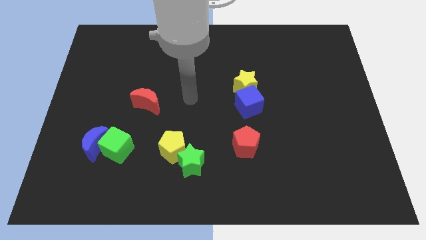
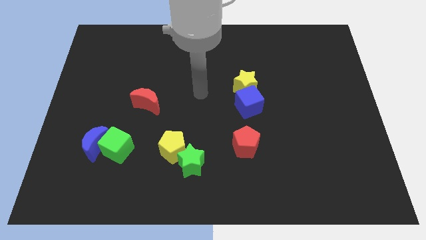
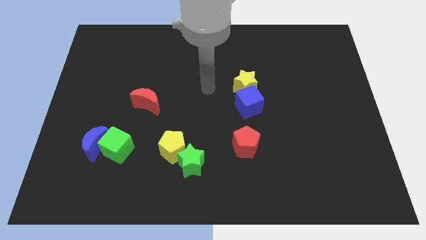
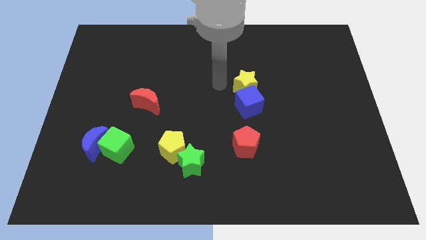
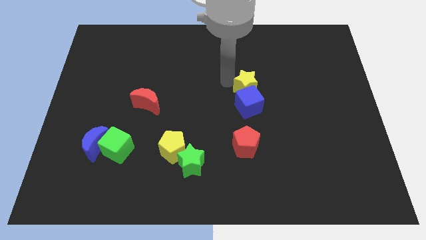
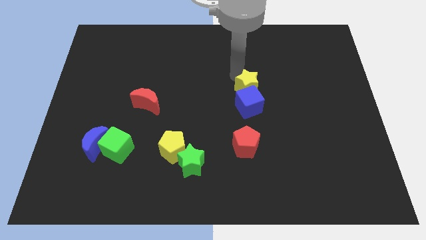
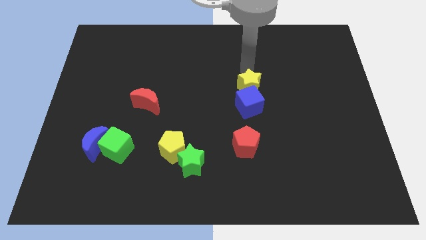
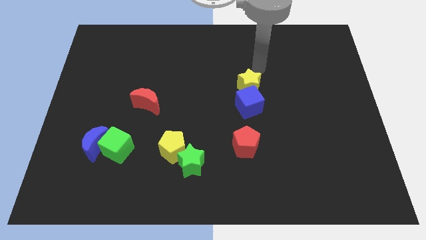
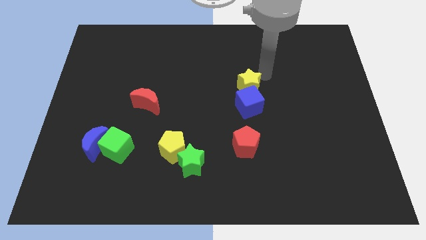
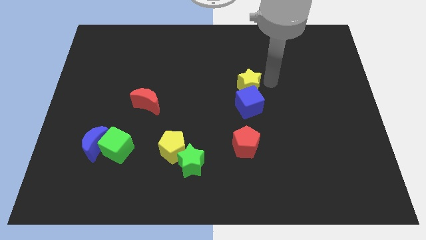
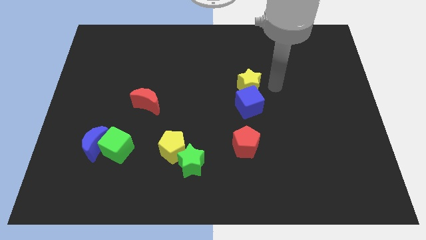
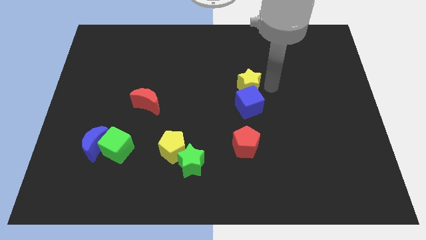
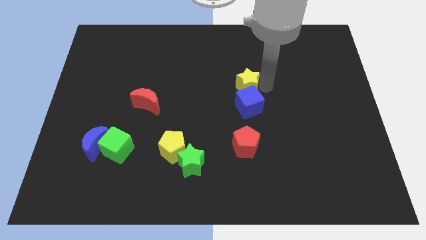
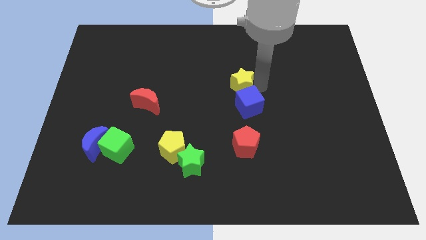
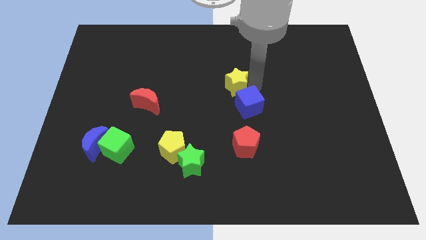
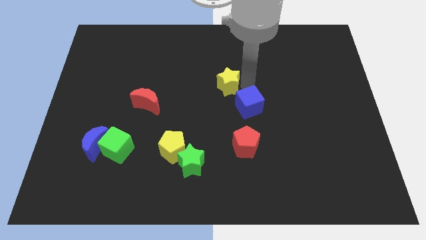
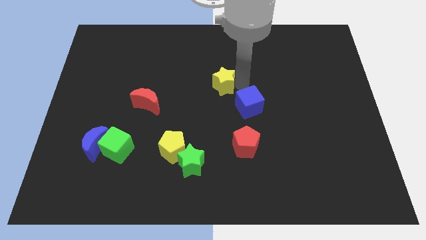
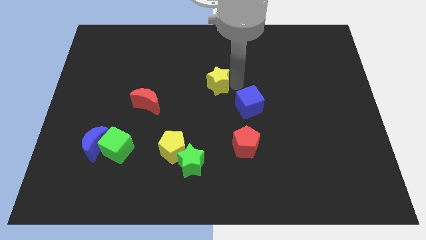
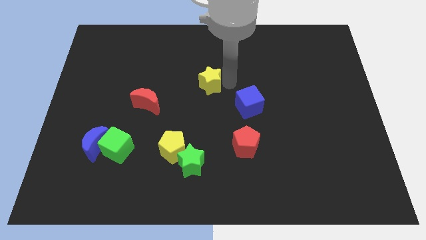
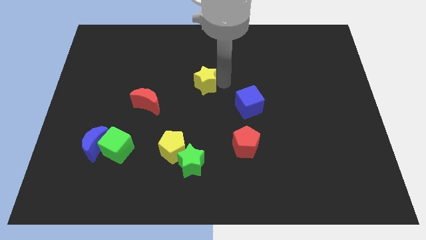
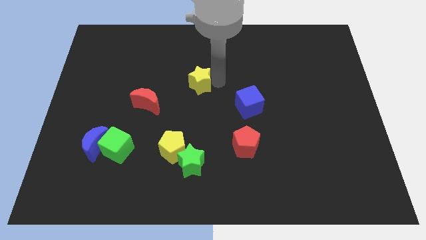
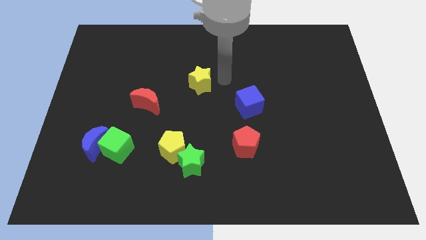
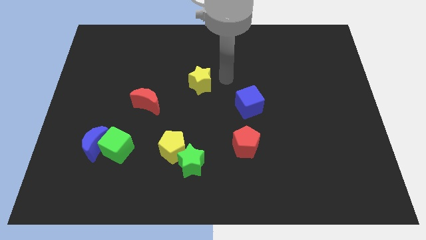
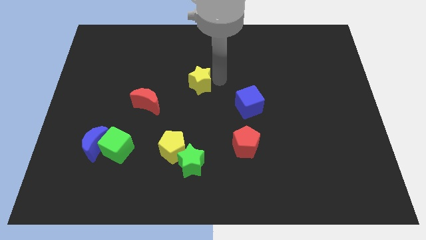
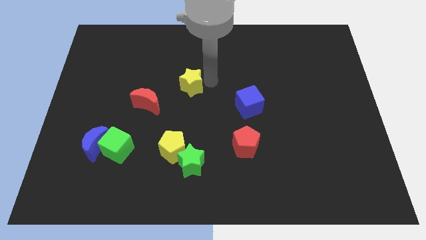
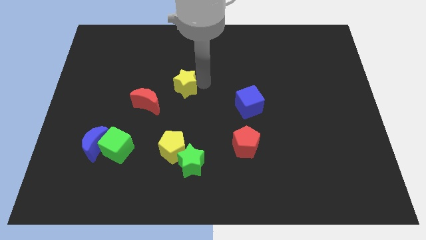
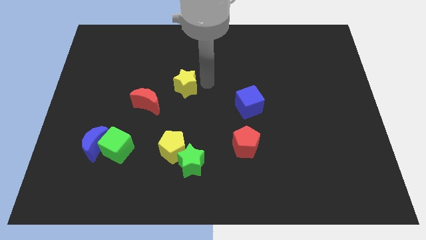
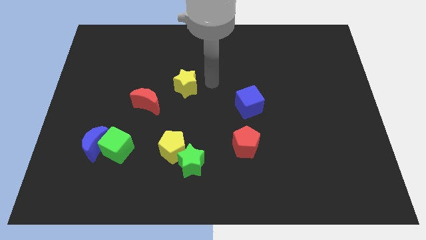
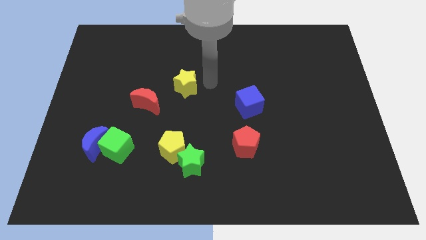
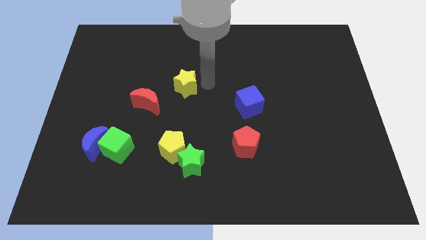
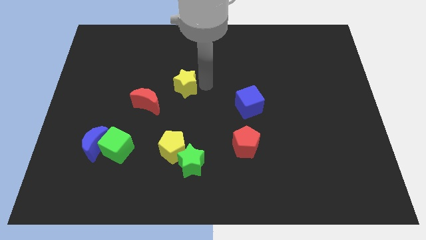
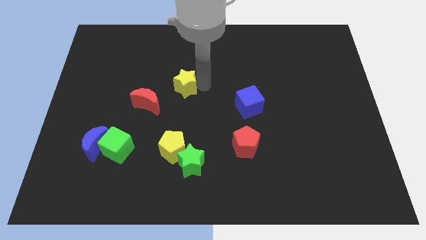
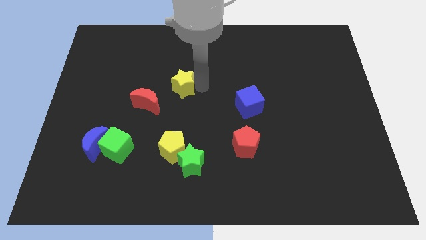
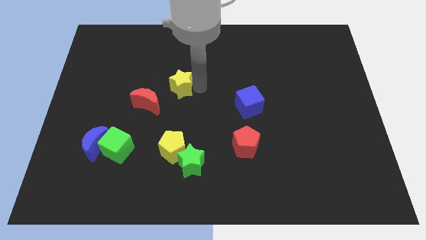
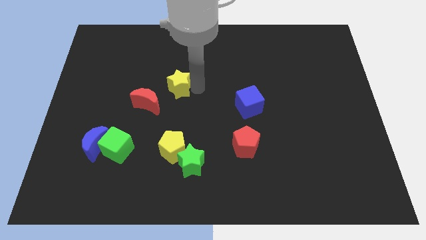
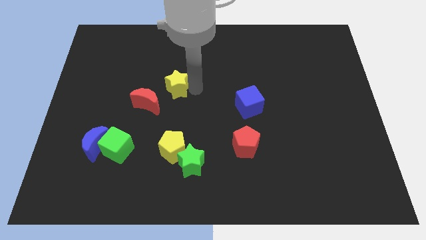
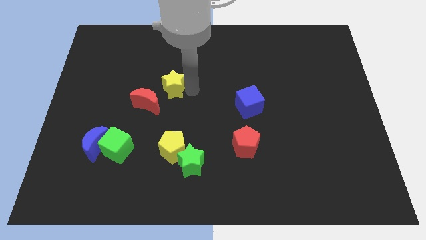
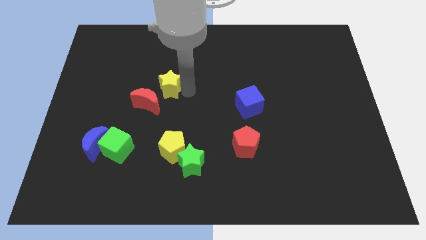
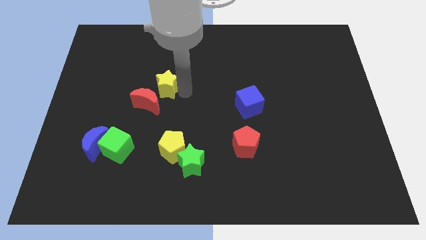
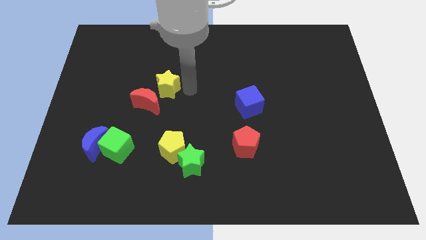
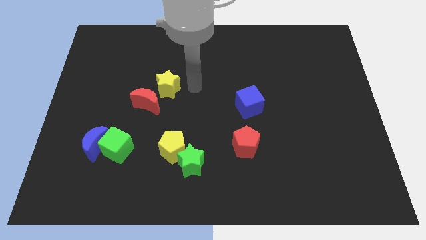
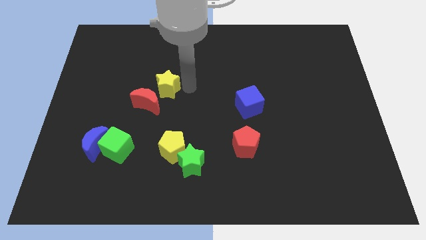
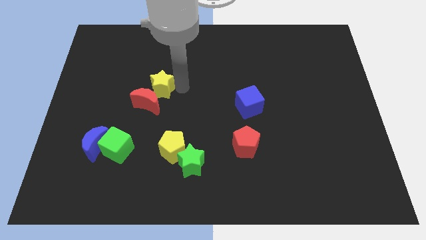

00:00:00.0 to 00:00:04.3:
move the yellow star left

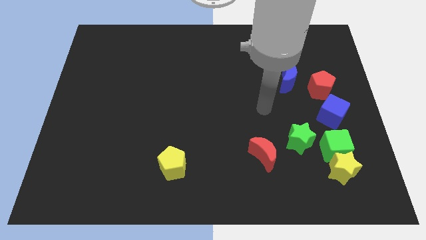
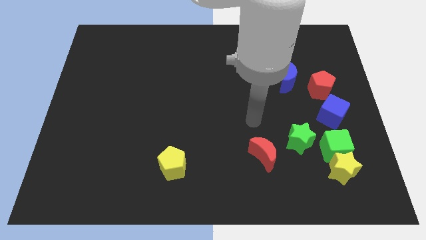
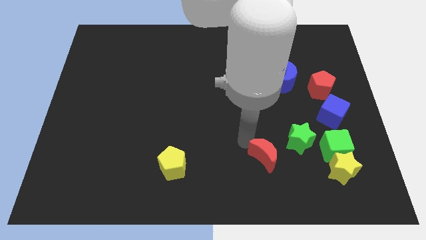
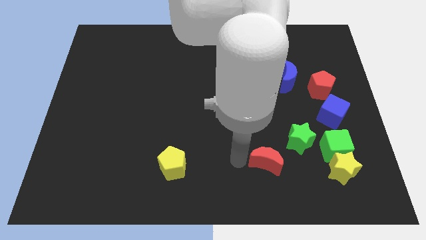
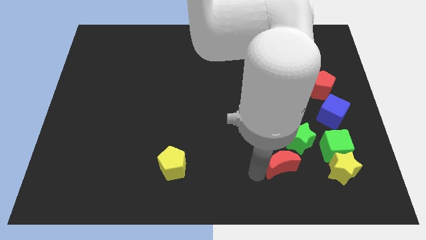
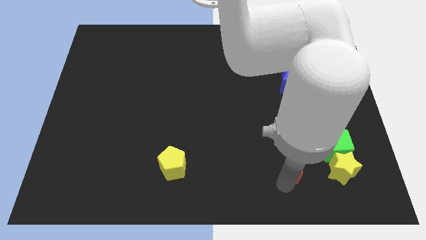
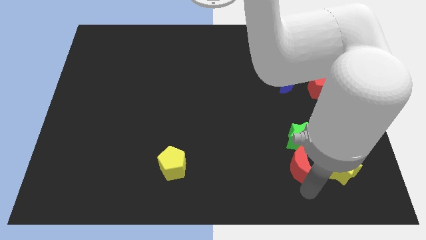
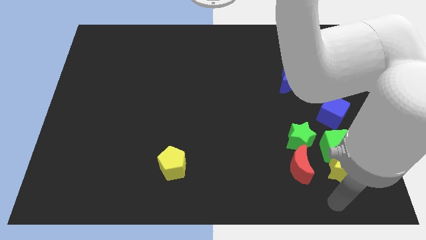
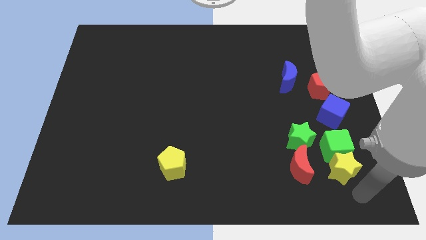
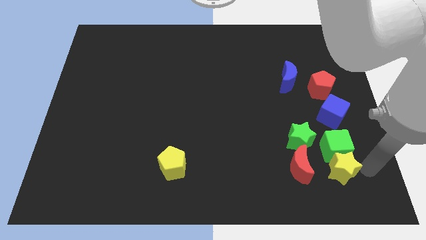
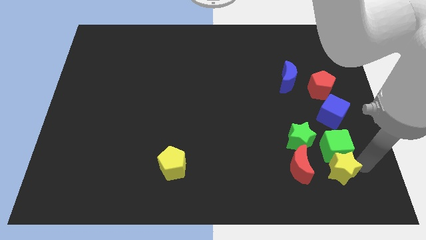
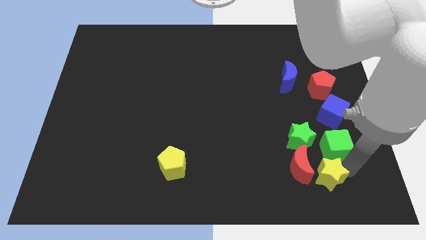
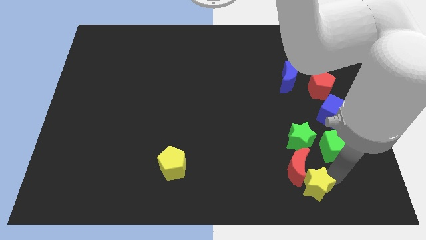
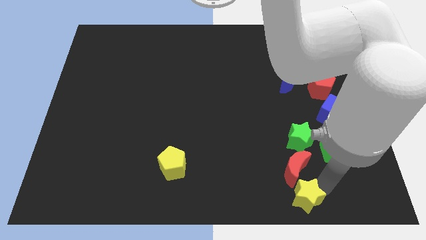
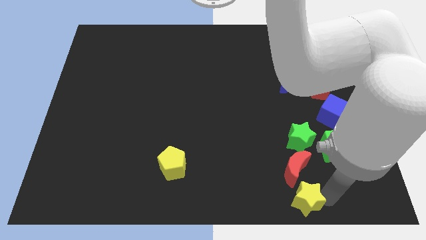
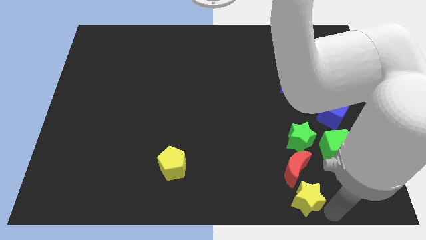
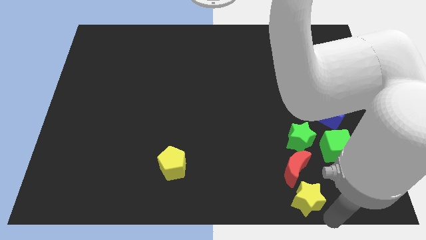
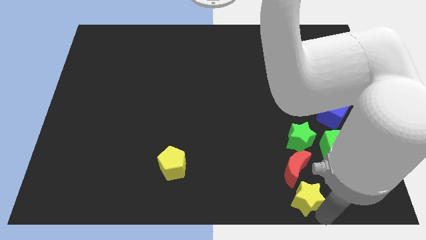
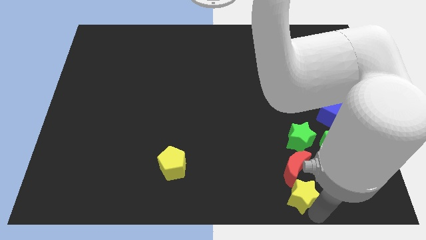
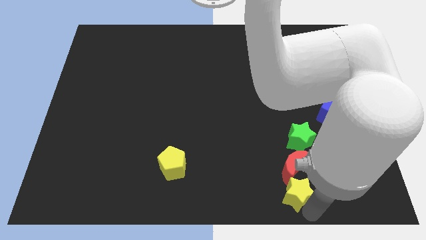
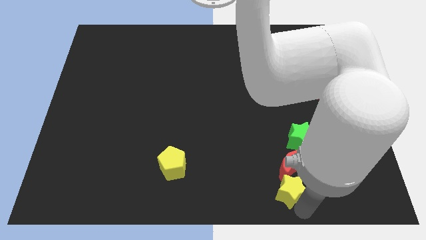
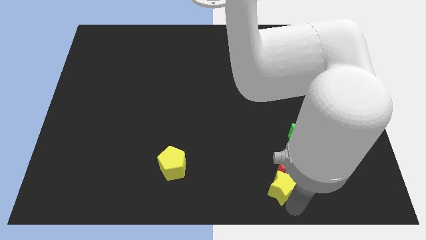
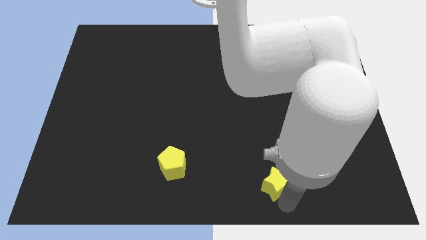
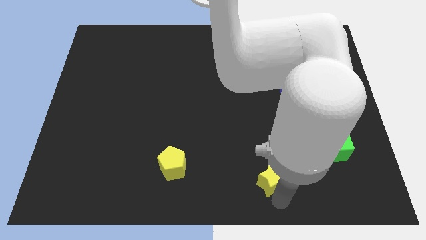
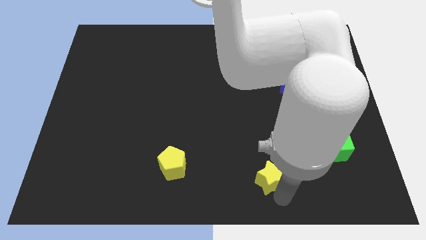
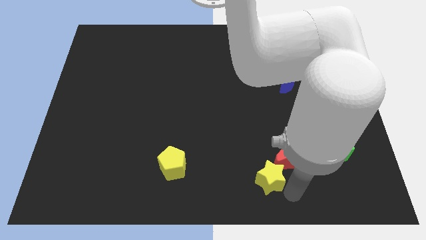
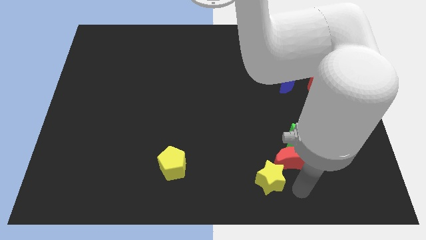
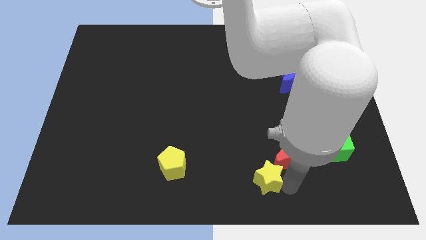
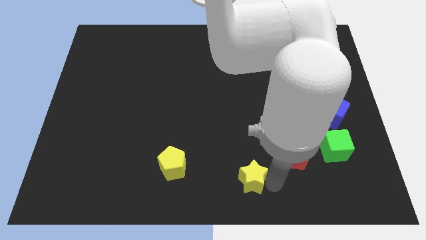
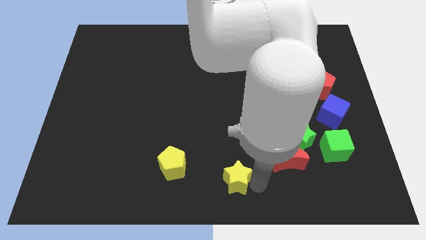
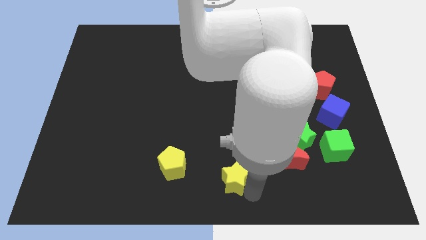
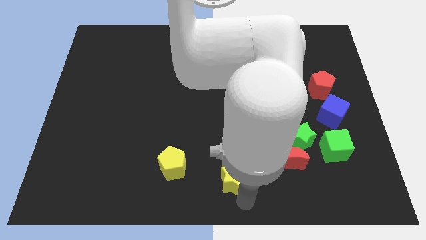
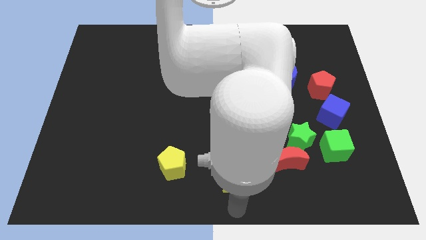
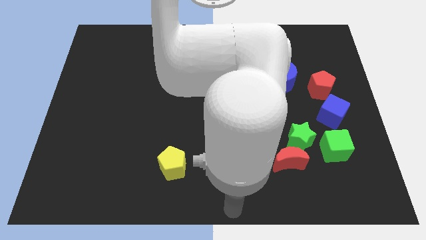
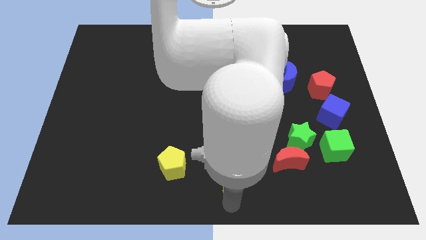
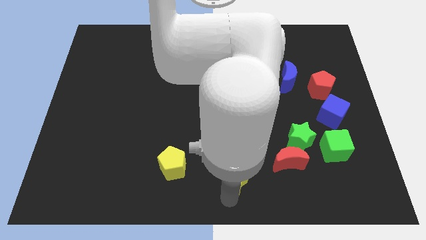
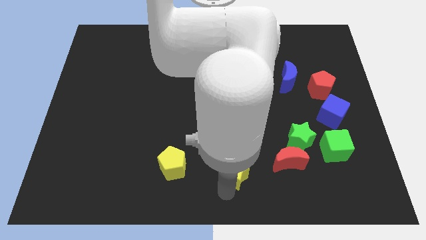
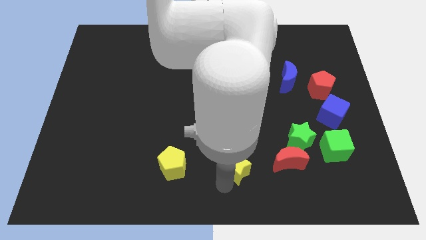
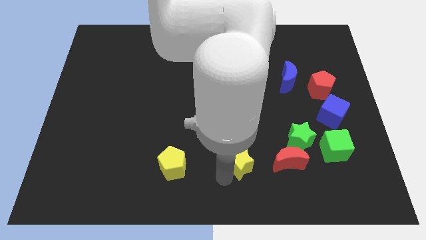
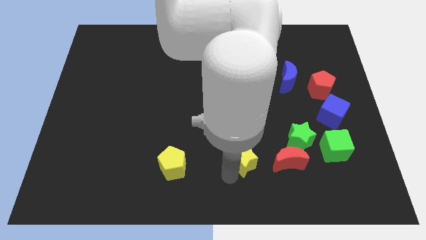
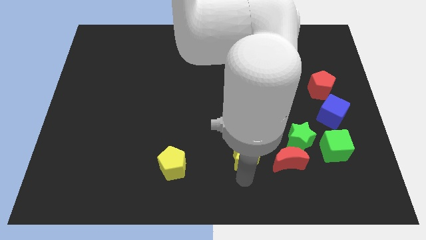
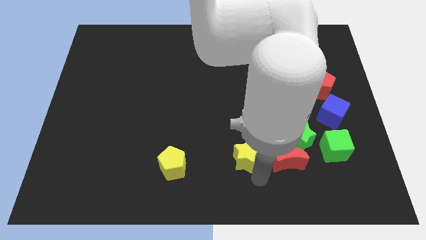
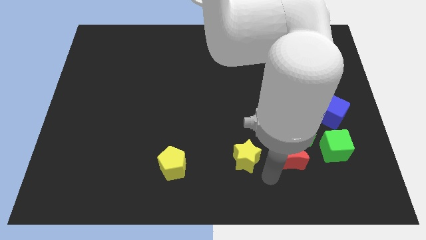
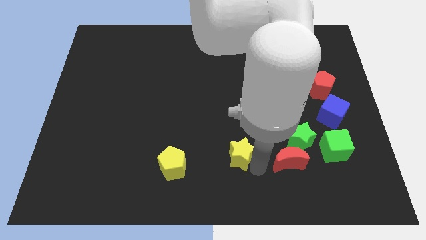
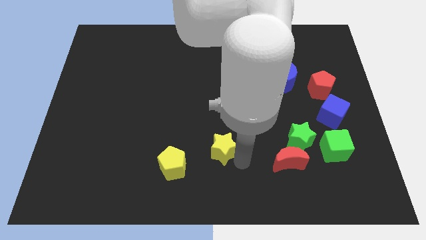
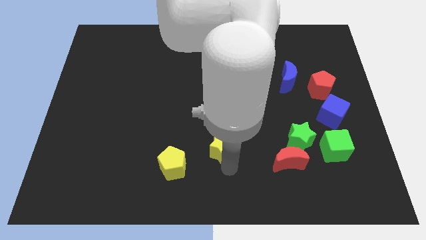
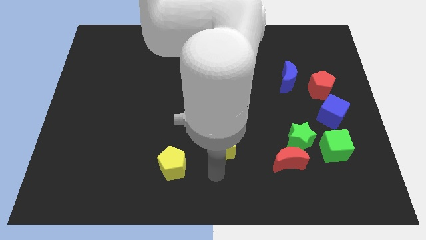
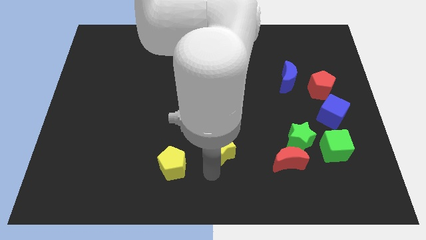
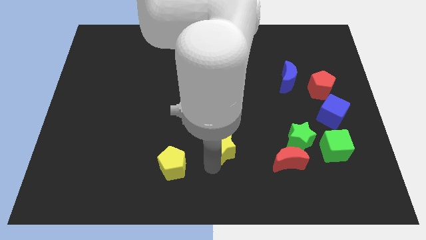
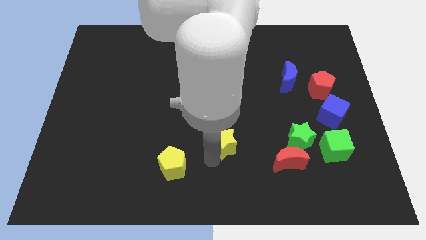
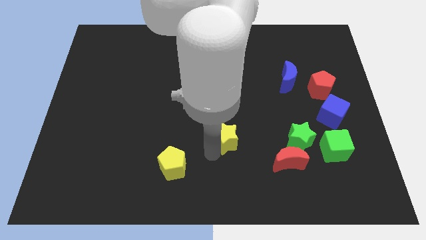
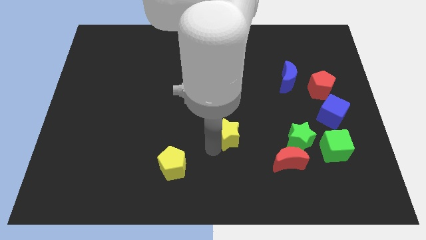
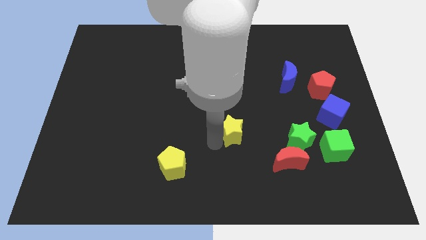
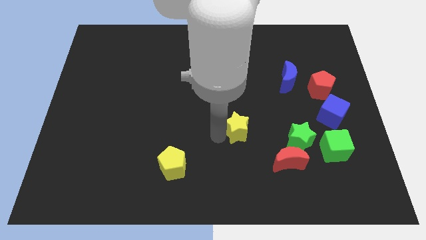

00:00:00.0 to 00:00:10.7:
slide the yellow star upwards and left diagonally
